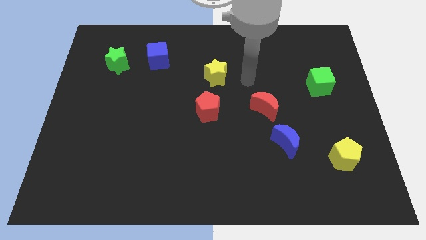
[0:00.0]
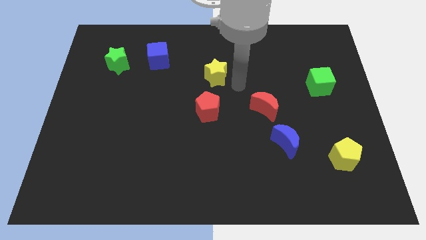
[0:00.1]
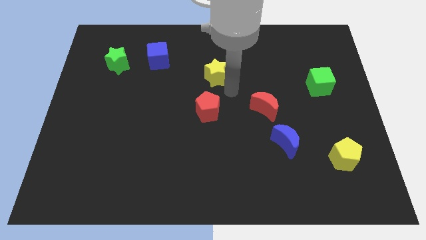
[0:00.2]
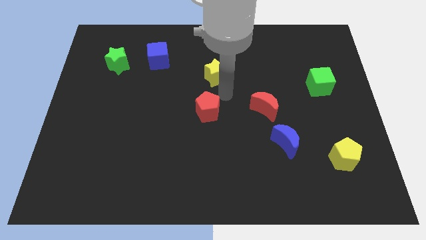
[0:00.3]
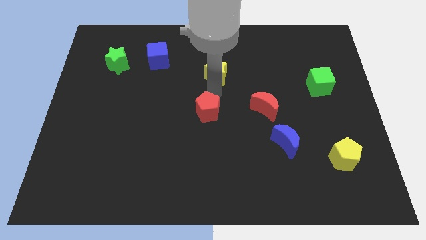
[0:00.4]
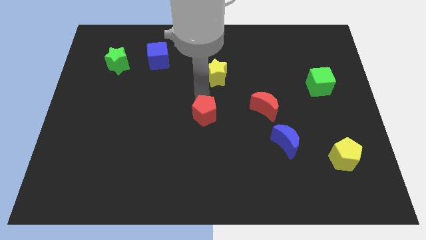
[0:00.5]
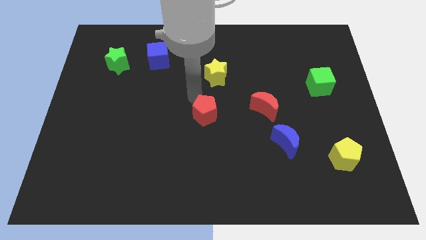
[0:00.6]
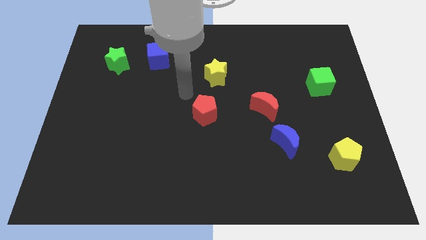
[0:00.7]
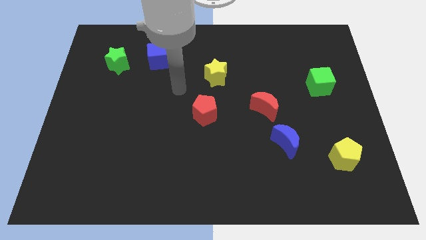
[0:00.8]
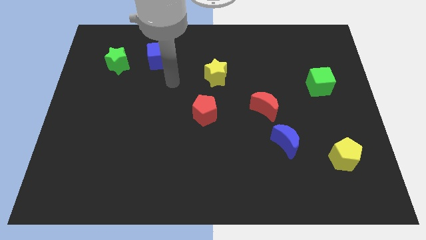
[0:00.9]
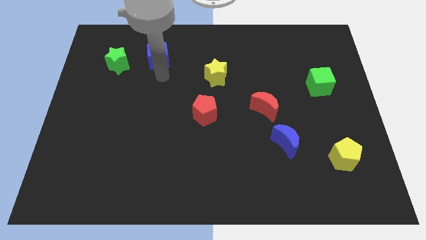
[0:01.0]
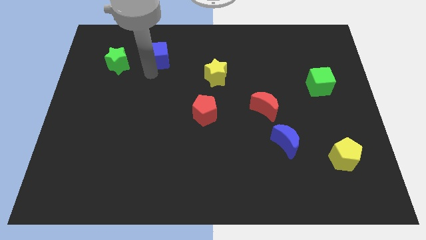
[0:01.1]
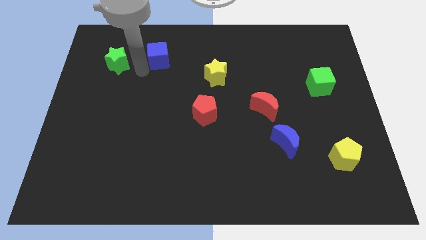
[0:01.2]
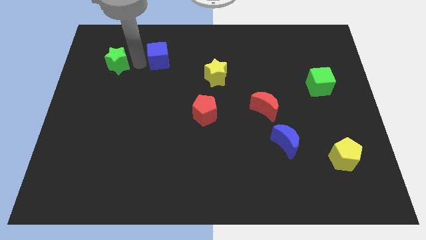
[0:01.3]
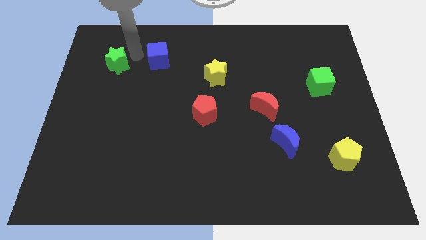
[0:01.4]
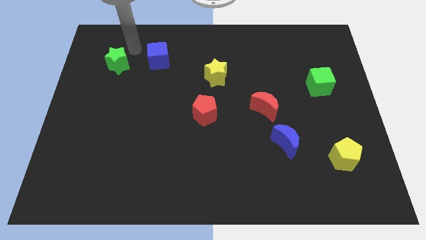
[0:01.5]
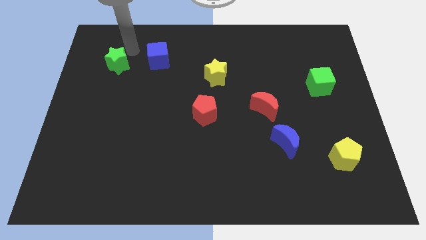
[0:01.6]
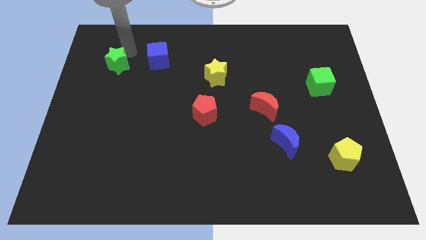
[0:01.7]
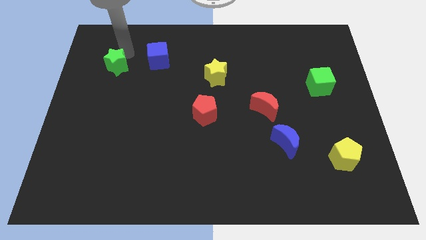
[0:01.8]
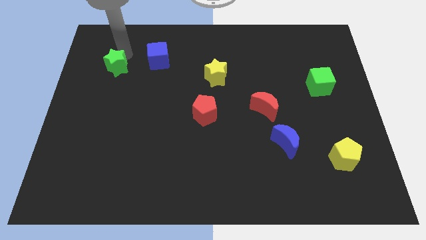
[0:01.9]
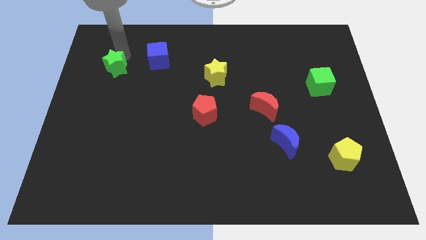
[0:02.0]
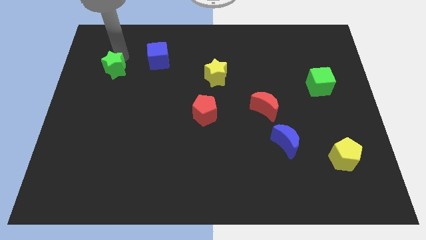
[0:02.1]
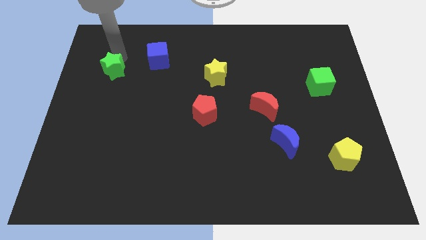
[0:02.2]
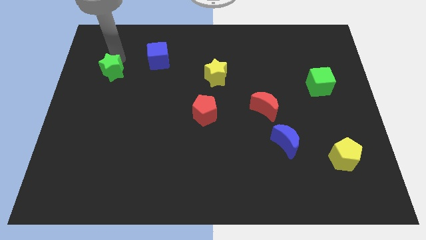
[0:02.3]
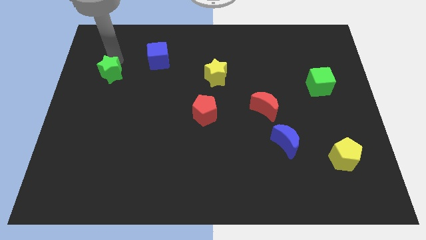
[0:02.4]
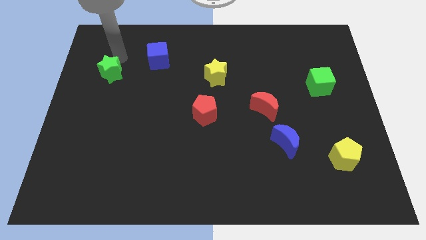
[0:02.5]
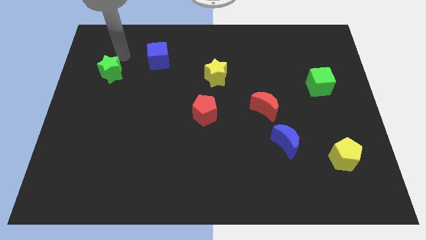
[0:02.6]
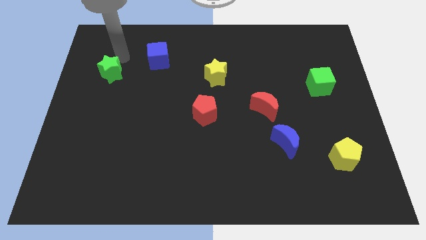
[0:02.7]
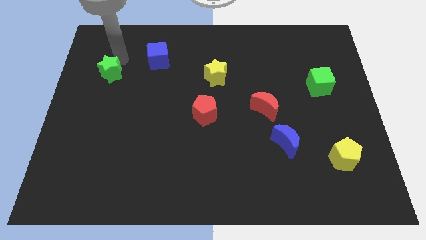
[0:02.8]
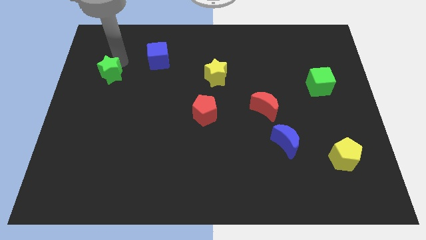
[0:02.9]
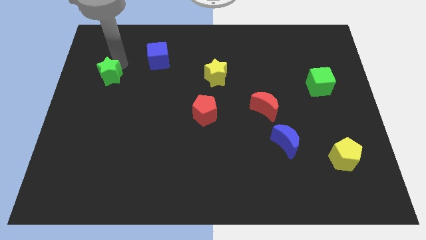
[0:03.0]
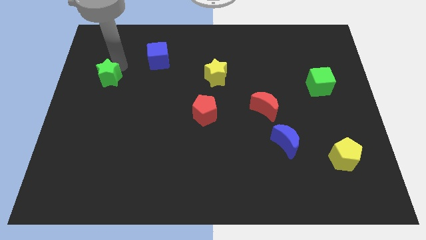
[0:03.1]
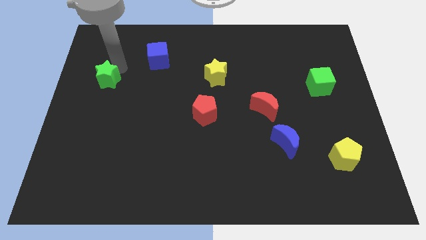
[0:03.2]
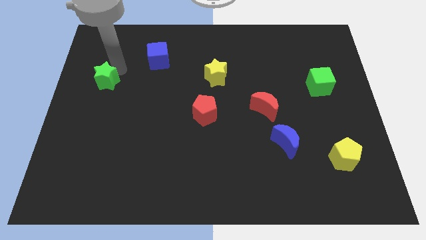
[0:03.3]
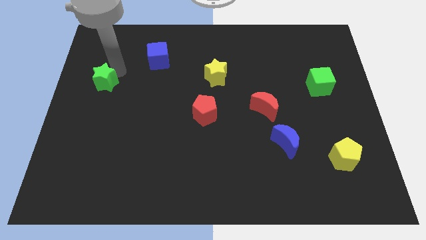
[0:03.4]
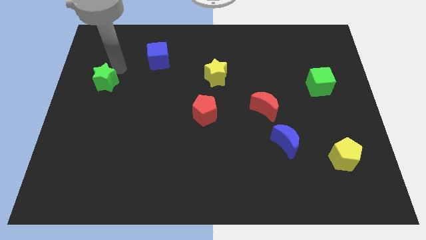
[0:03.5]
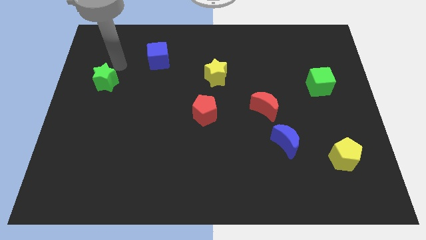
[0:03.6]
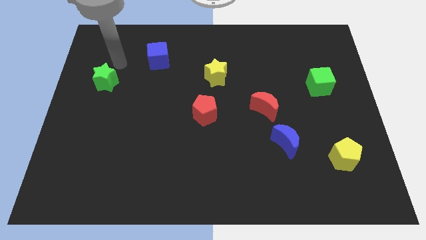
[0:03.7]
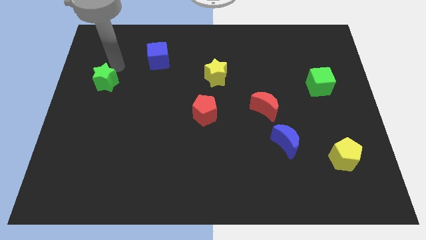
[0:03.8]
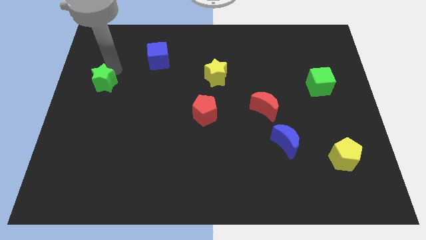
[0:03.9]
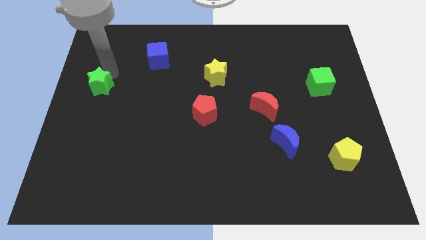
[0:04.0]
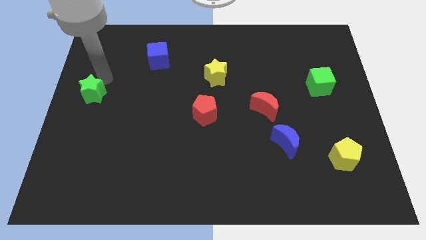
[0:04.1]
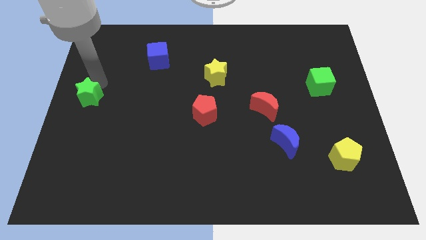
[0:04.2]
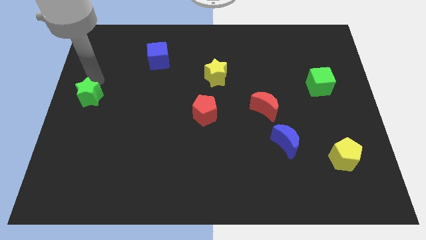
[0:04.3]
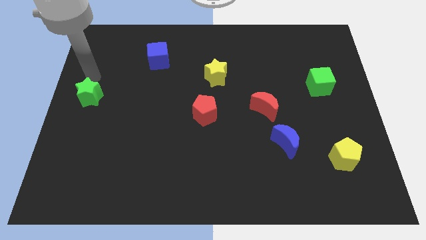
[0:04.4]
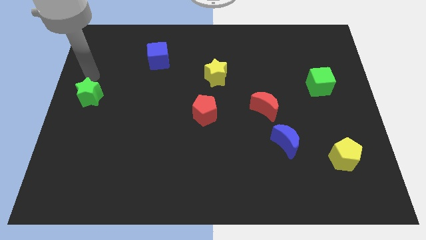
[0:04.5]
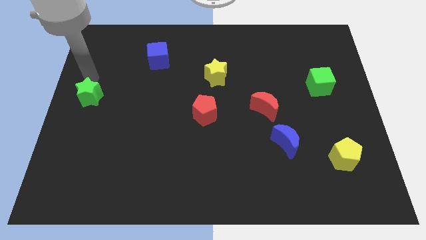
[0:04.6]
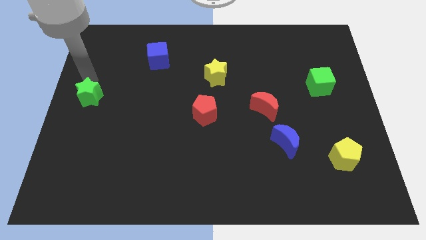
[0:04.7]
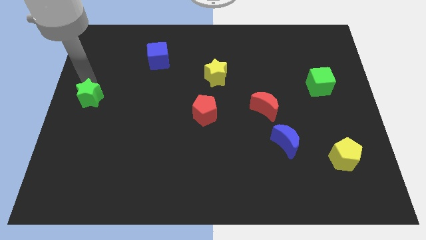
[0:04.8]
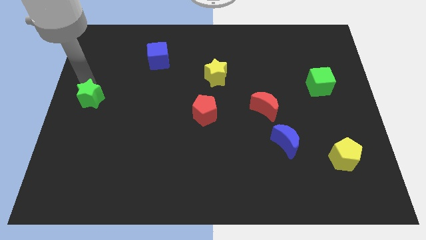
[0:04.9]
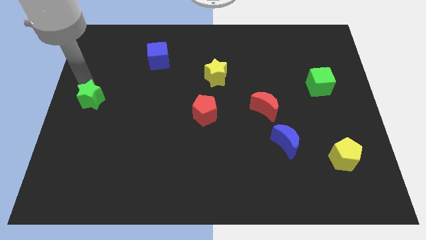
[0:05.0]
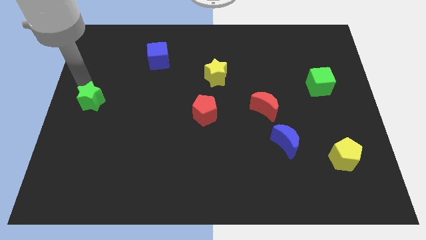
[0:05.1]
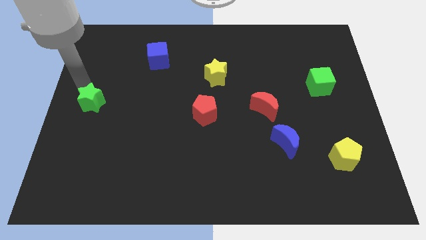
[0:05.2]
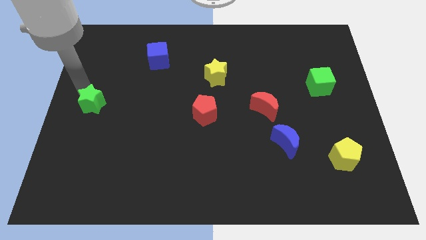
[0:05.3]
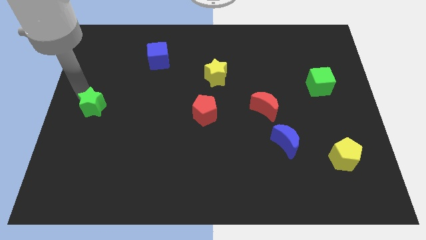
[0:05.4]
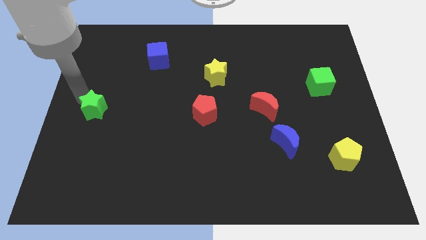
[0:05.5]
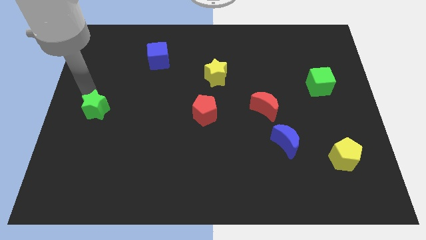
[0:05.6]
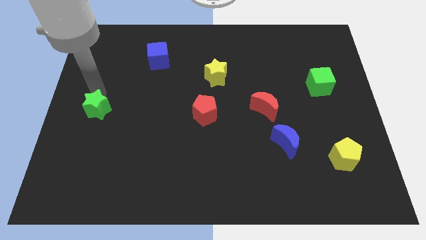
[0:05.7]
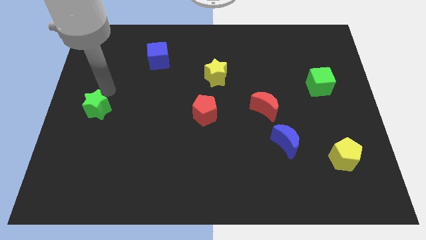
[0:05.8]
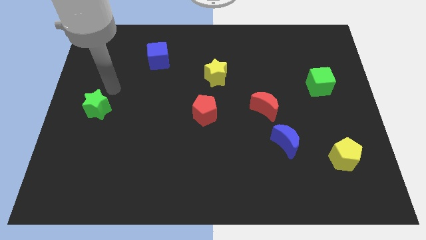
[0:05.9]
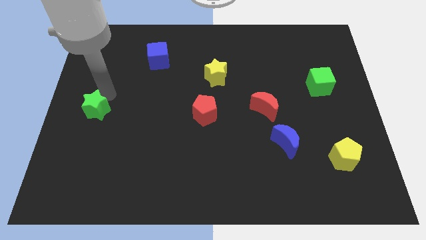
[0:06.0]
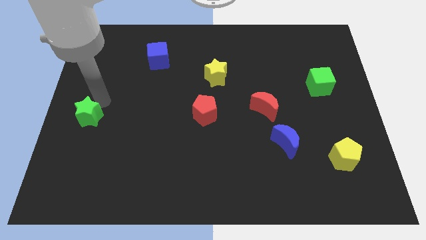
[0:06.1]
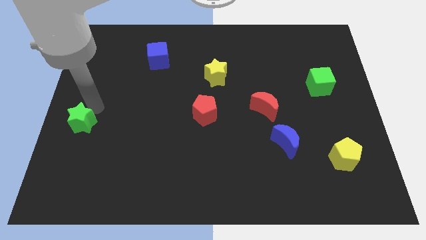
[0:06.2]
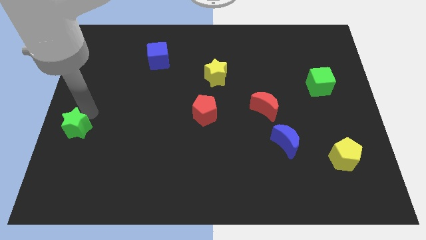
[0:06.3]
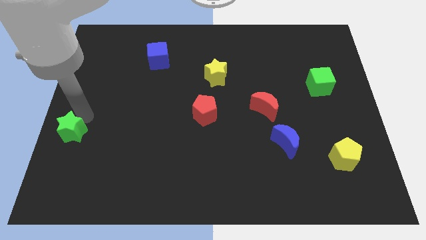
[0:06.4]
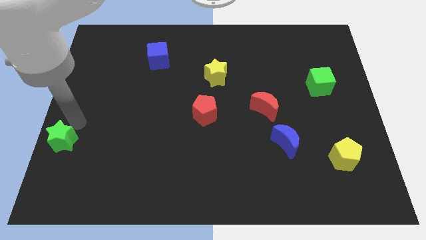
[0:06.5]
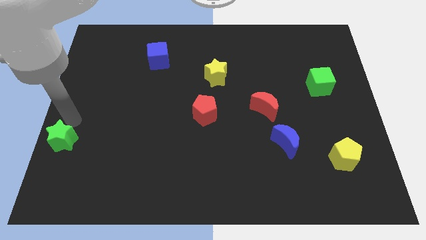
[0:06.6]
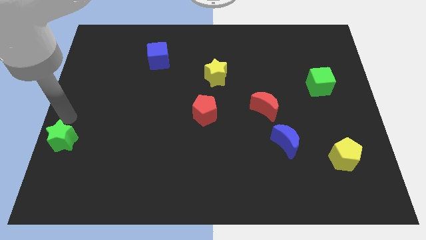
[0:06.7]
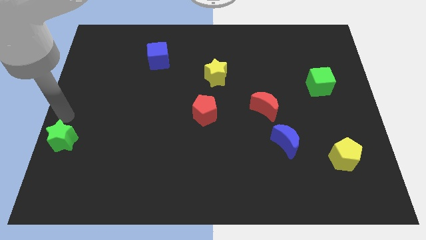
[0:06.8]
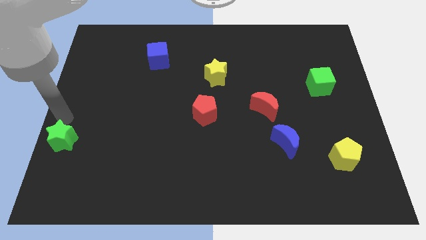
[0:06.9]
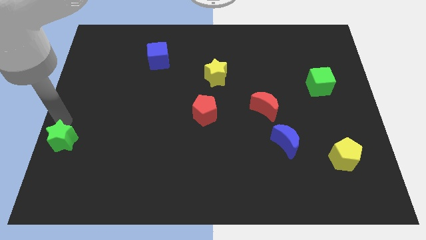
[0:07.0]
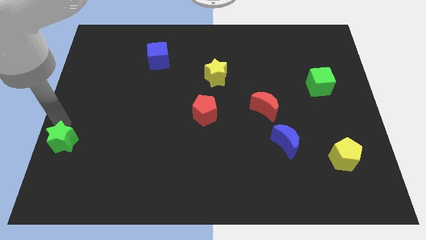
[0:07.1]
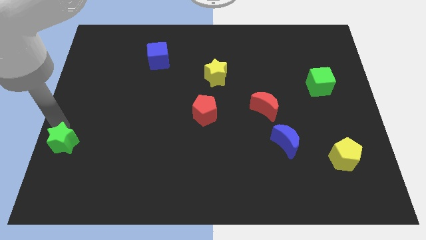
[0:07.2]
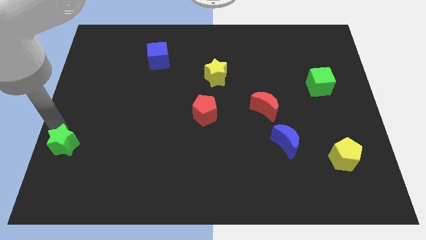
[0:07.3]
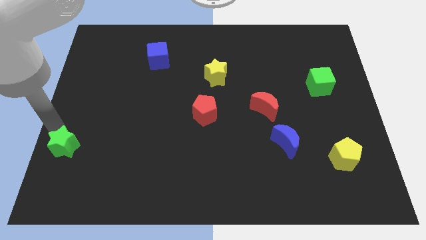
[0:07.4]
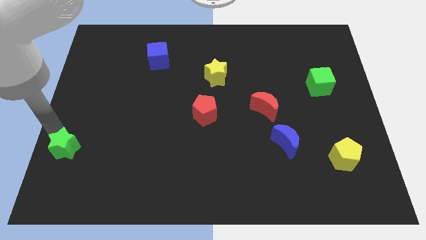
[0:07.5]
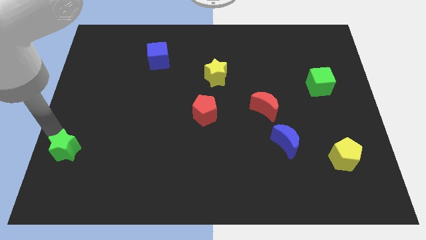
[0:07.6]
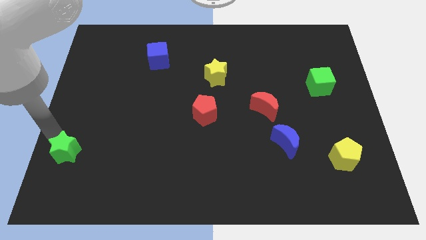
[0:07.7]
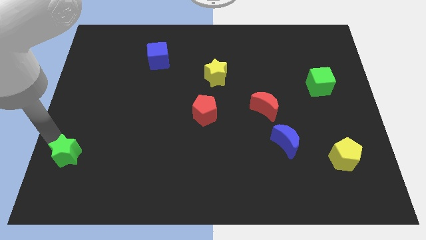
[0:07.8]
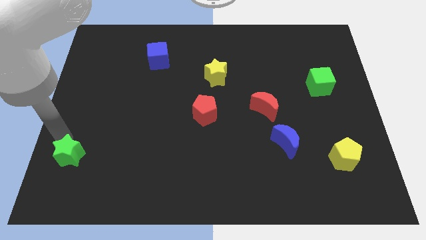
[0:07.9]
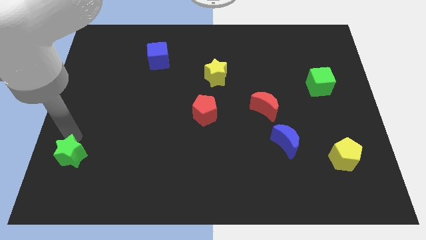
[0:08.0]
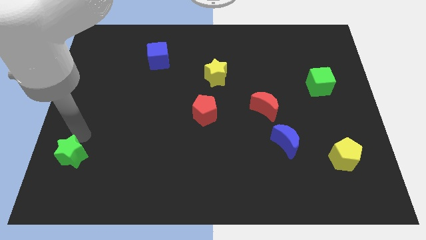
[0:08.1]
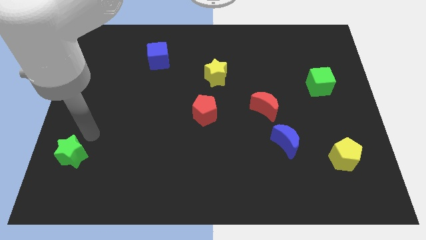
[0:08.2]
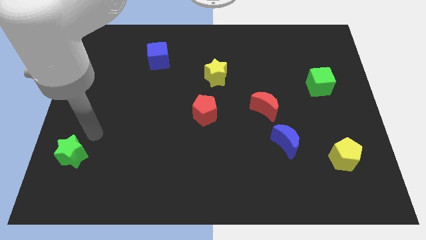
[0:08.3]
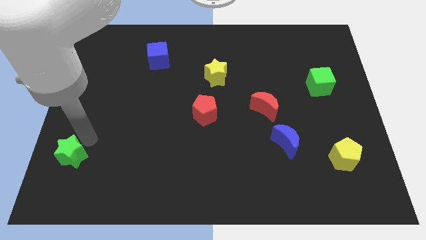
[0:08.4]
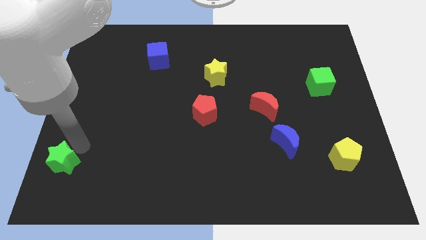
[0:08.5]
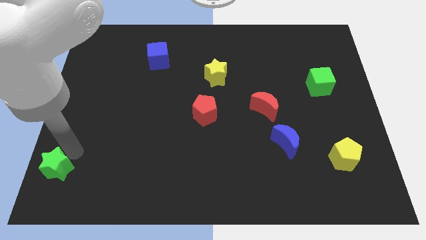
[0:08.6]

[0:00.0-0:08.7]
slide the green star to the bottom left
